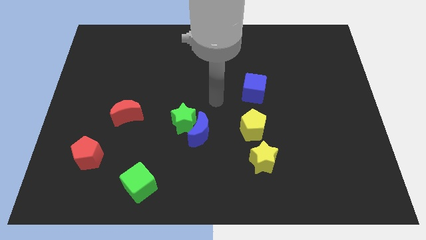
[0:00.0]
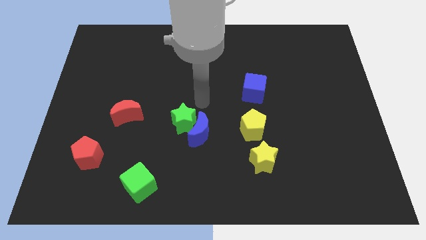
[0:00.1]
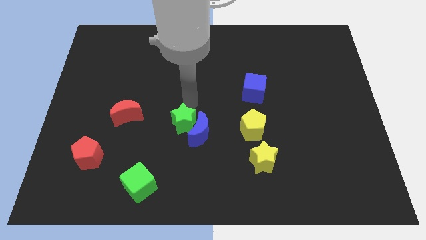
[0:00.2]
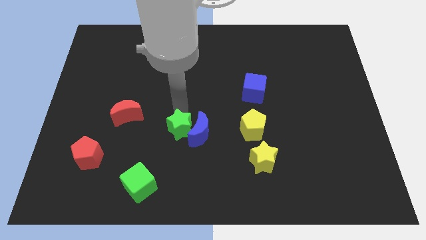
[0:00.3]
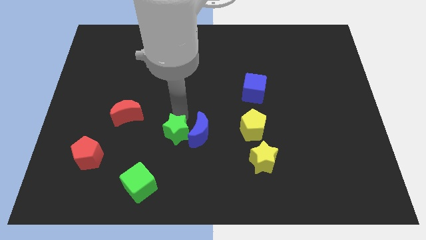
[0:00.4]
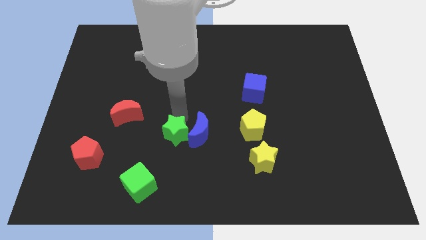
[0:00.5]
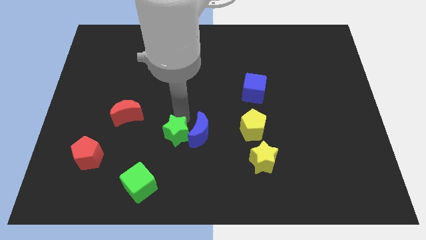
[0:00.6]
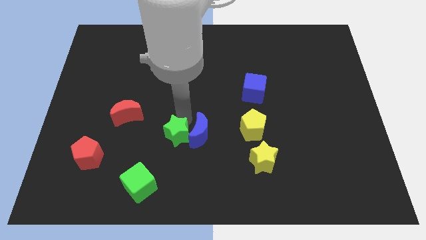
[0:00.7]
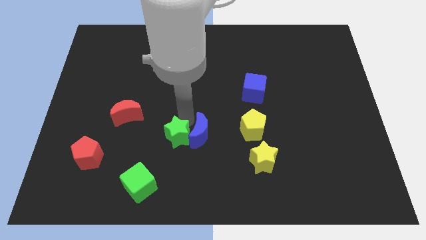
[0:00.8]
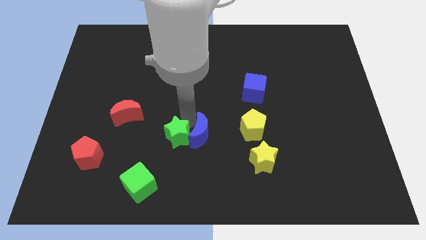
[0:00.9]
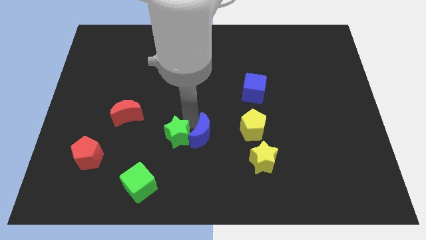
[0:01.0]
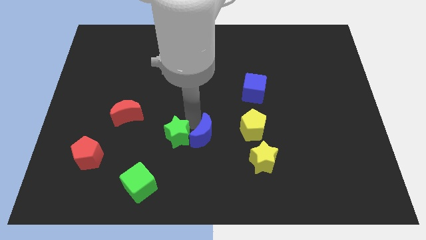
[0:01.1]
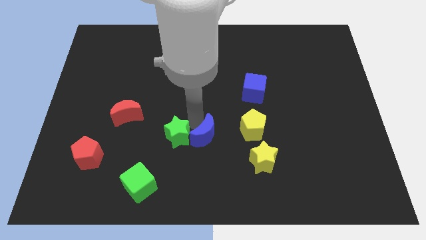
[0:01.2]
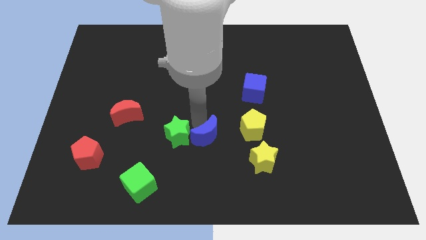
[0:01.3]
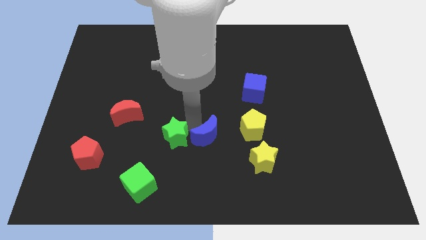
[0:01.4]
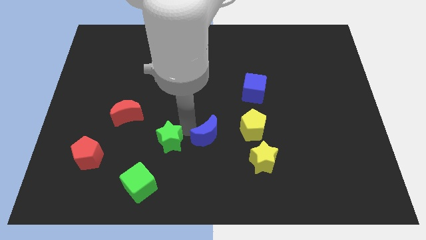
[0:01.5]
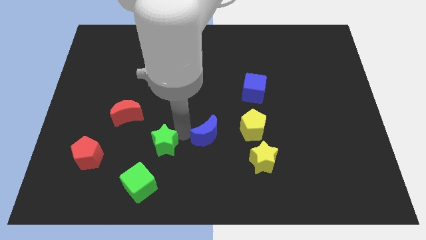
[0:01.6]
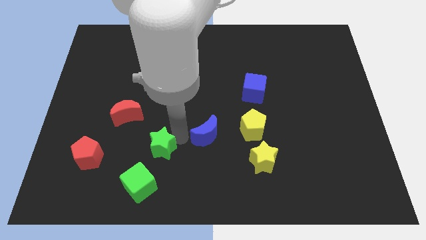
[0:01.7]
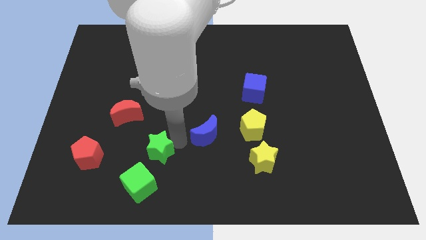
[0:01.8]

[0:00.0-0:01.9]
pull the blue moon apart from the green star

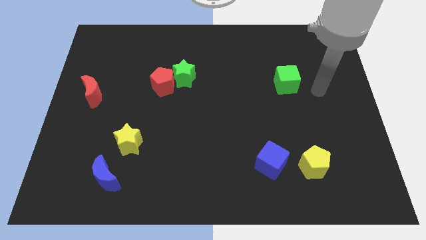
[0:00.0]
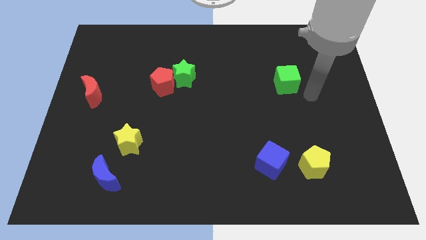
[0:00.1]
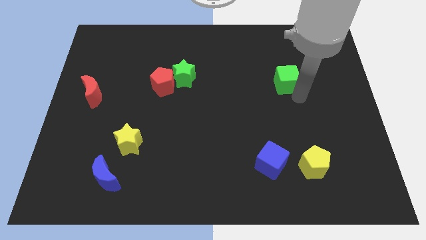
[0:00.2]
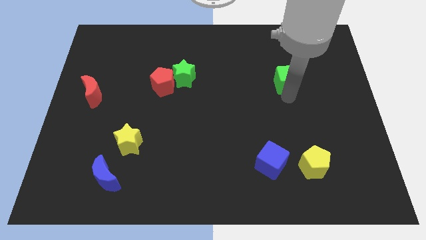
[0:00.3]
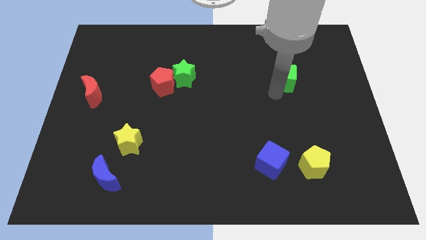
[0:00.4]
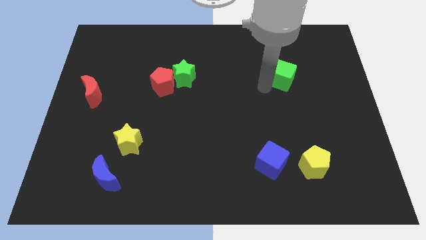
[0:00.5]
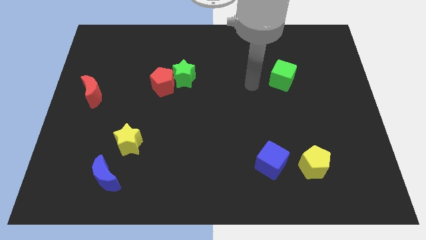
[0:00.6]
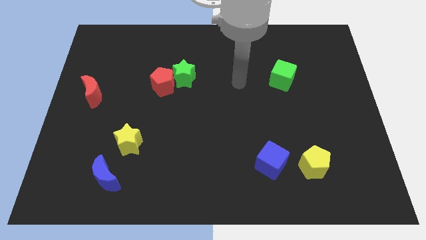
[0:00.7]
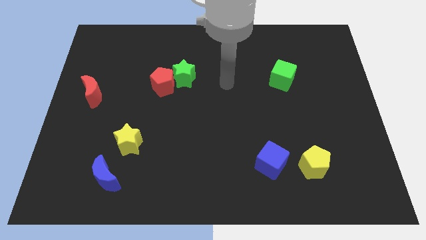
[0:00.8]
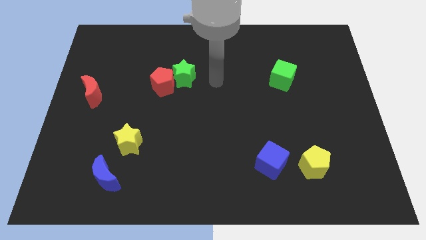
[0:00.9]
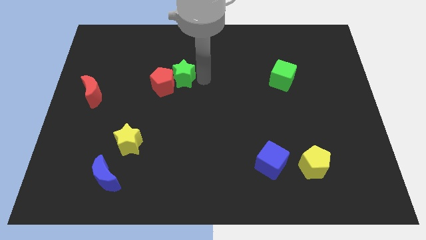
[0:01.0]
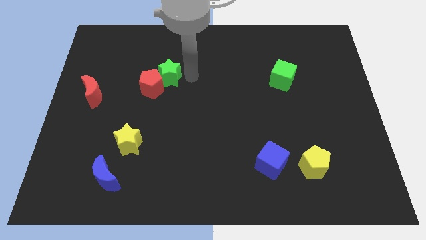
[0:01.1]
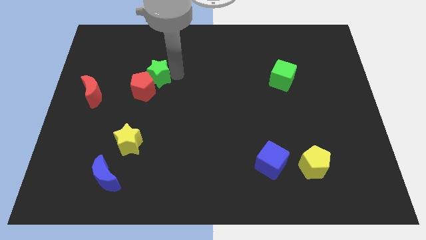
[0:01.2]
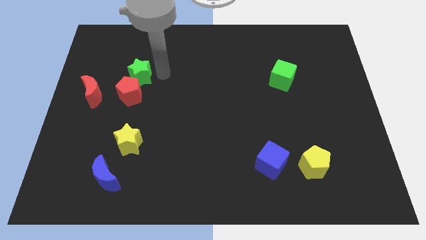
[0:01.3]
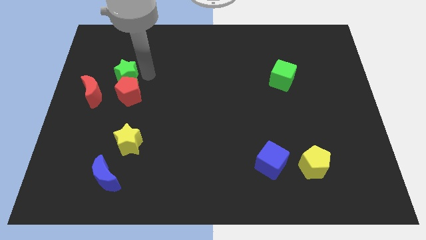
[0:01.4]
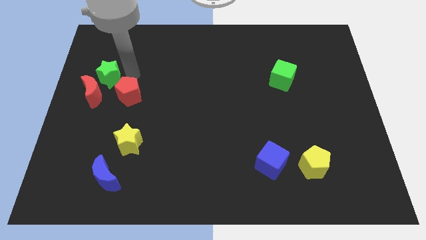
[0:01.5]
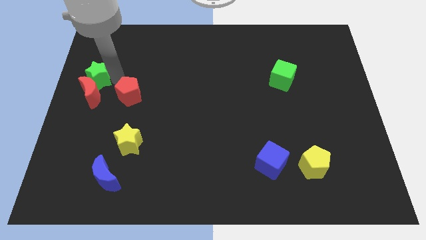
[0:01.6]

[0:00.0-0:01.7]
move the red pentagon away from the green star

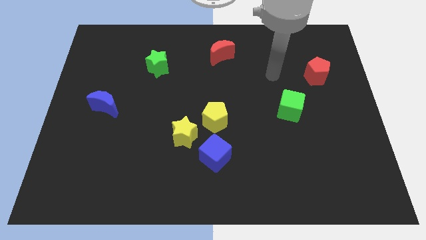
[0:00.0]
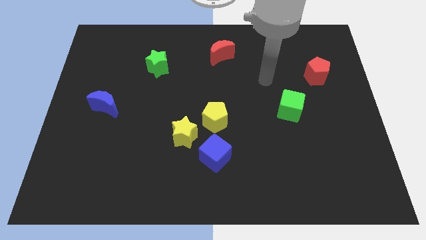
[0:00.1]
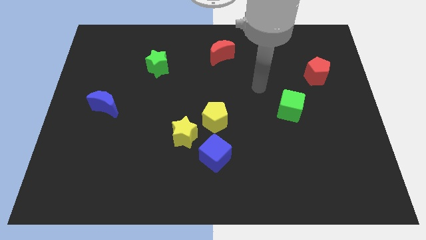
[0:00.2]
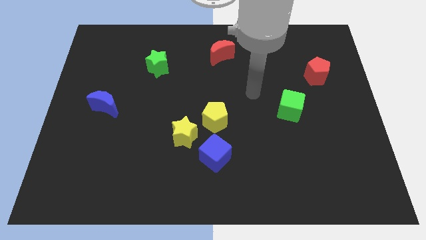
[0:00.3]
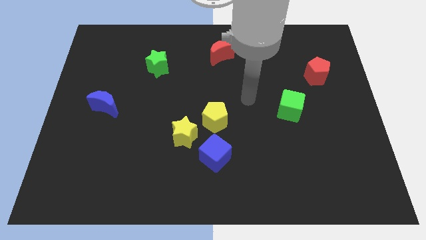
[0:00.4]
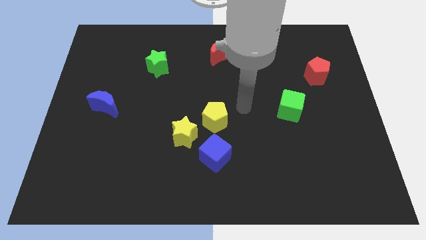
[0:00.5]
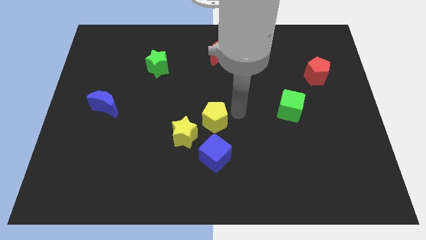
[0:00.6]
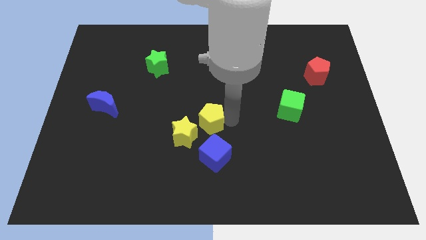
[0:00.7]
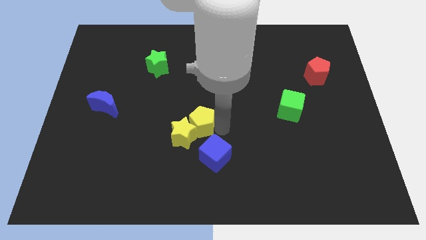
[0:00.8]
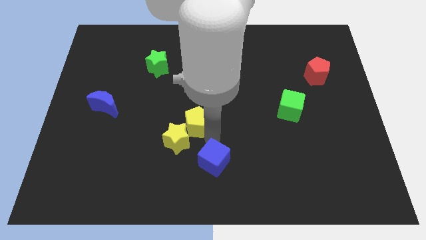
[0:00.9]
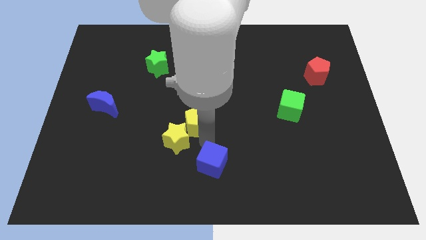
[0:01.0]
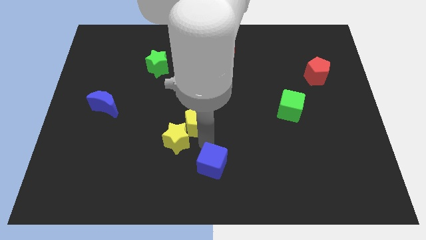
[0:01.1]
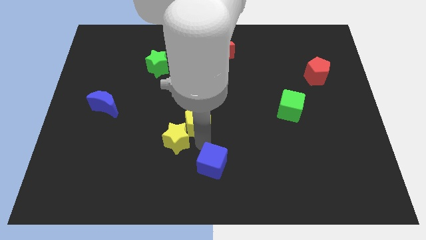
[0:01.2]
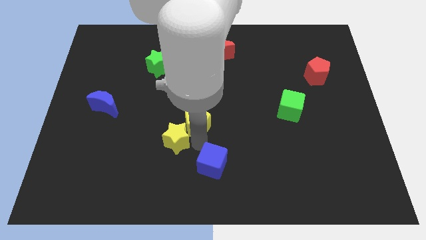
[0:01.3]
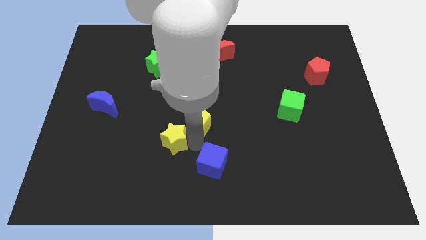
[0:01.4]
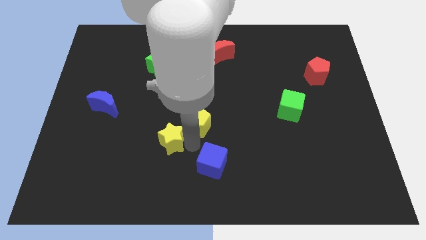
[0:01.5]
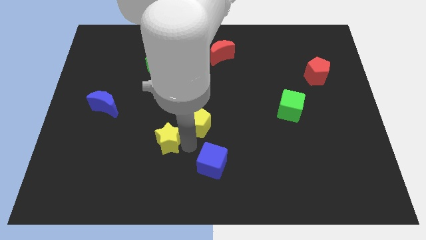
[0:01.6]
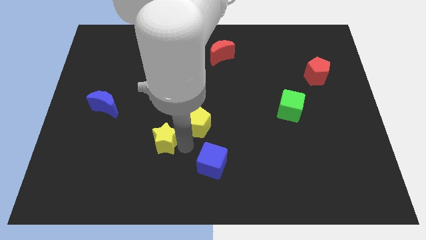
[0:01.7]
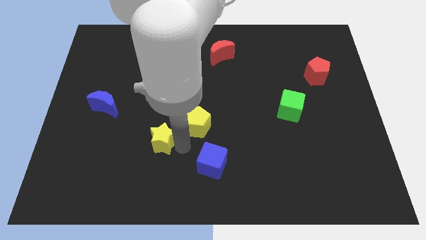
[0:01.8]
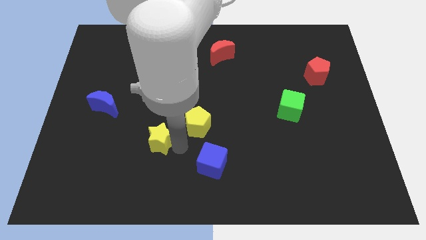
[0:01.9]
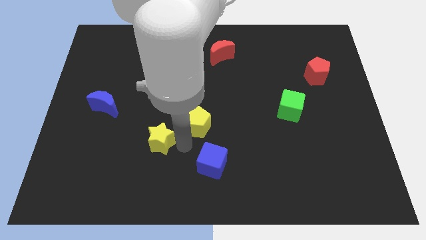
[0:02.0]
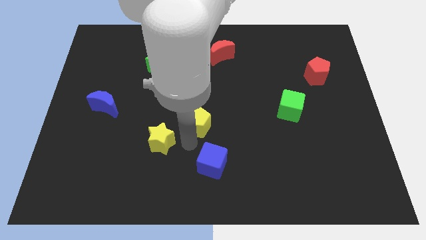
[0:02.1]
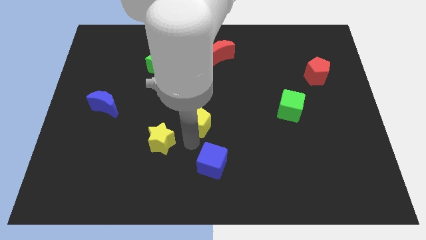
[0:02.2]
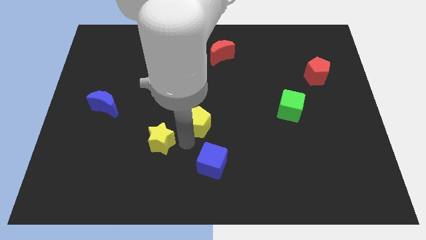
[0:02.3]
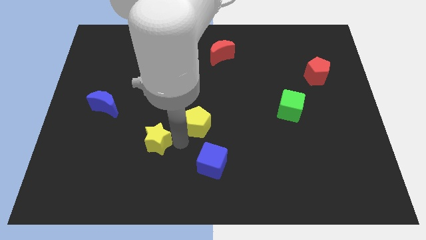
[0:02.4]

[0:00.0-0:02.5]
move the yellow star away from the yellow pentagon and blue cube

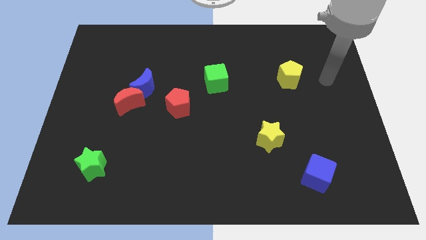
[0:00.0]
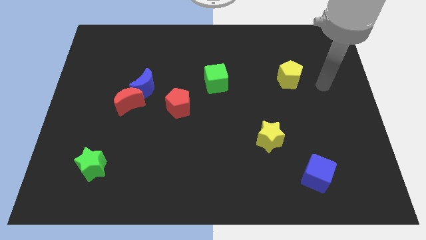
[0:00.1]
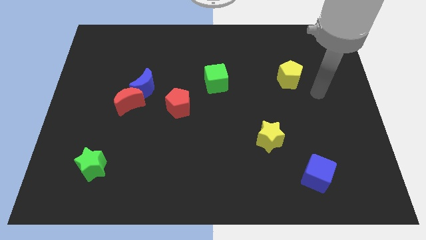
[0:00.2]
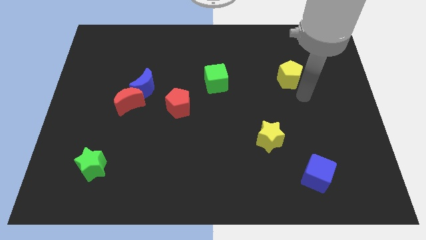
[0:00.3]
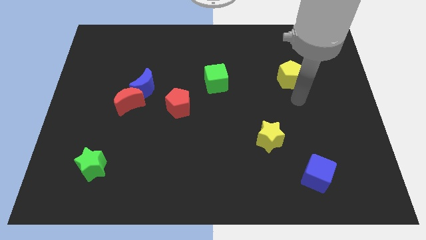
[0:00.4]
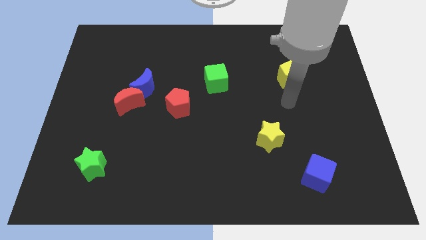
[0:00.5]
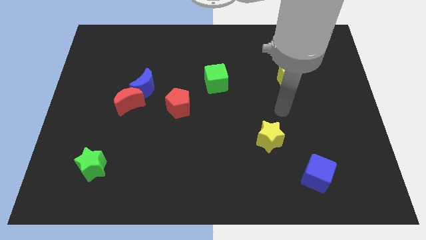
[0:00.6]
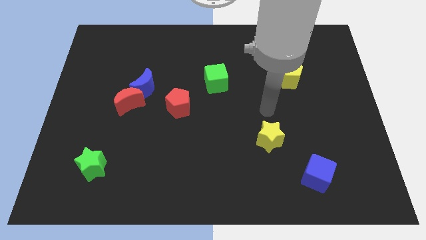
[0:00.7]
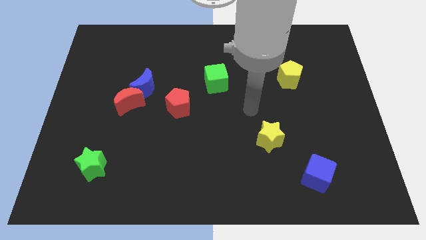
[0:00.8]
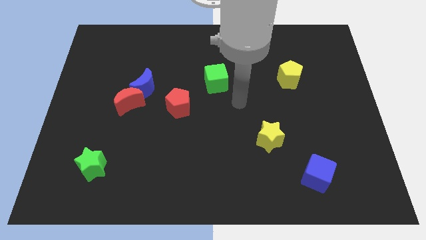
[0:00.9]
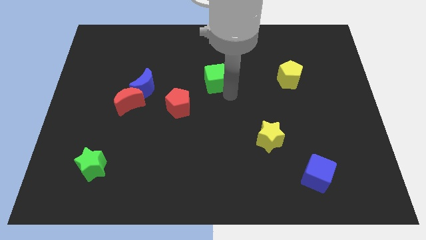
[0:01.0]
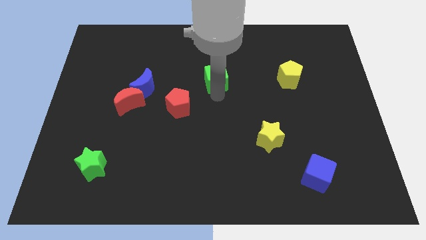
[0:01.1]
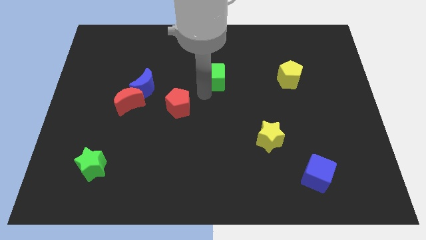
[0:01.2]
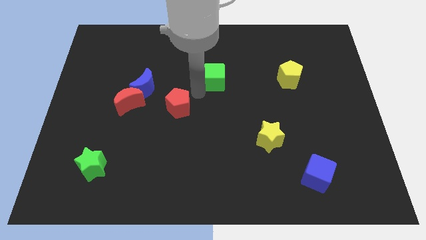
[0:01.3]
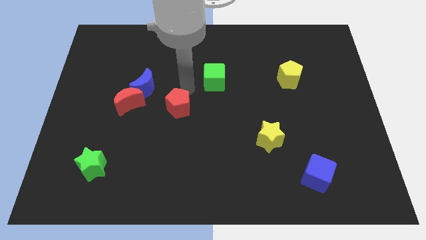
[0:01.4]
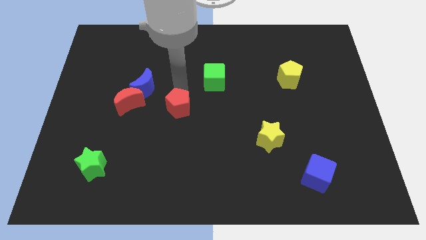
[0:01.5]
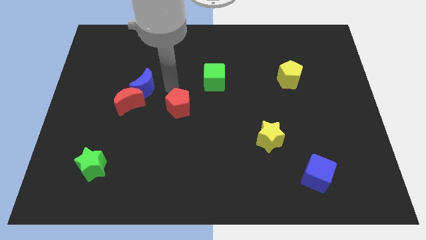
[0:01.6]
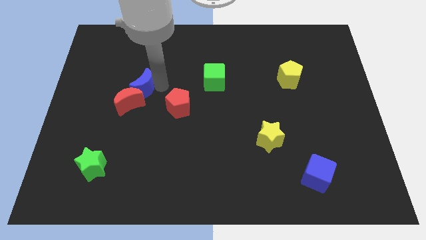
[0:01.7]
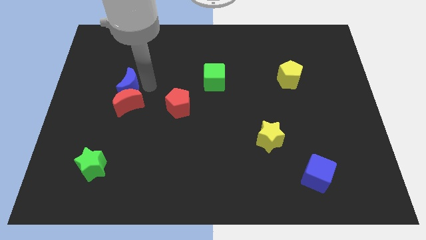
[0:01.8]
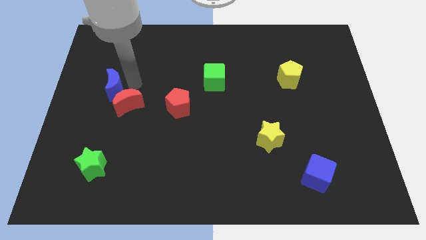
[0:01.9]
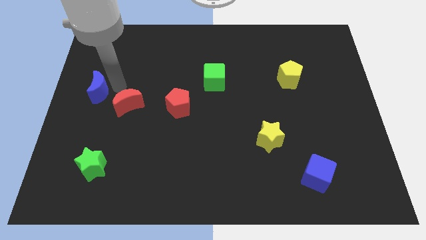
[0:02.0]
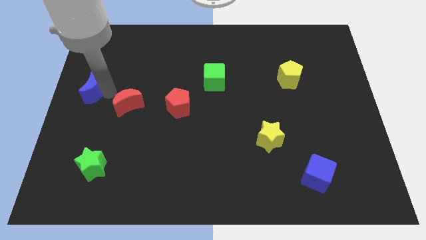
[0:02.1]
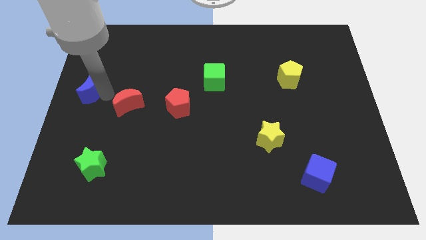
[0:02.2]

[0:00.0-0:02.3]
separate the red moon from the blue moon

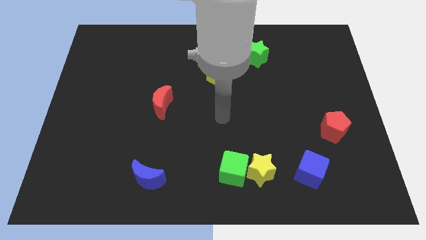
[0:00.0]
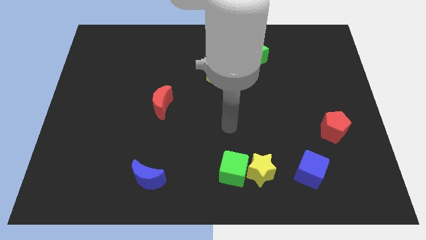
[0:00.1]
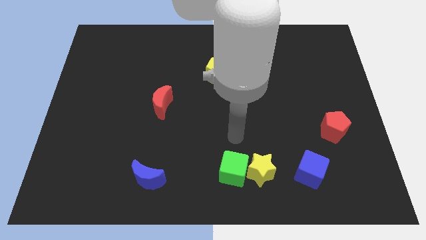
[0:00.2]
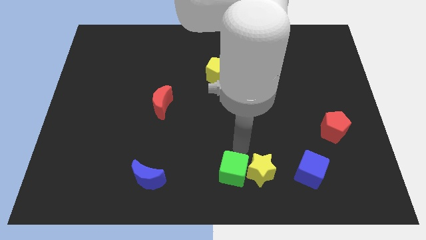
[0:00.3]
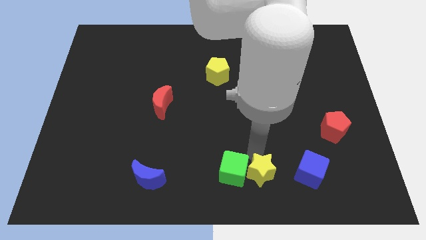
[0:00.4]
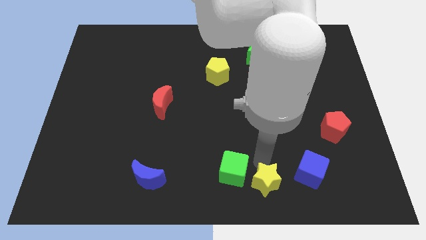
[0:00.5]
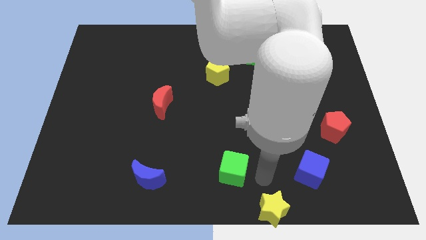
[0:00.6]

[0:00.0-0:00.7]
move the green cube away from the yellow star

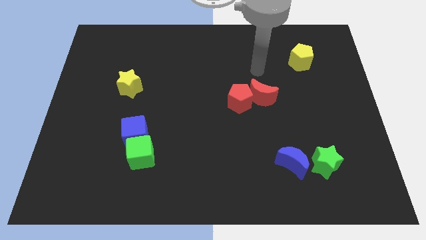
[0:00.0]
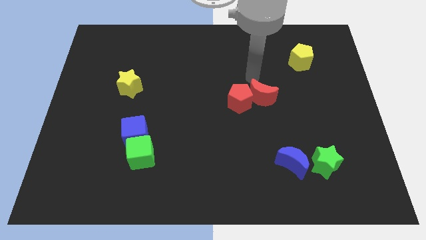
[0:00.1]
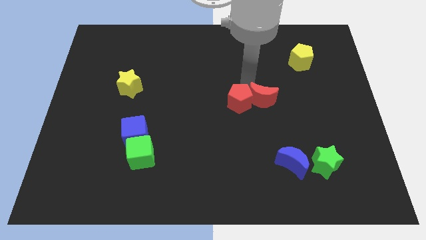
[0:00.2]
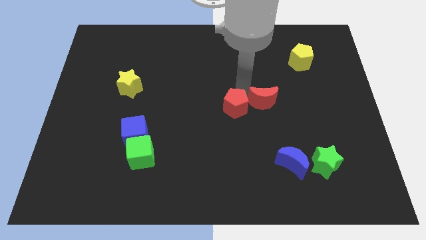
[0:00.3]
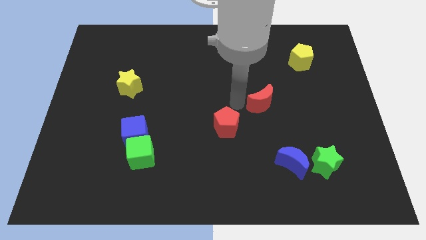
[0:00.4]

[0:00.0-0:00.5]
move the red moon away from the red pentagon
